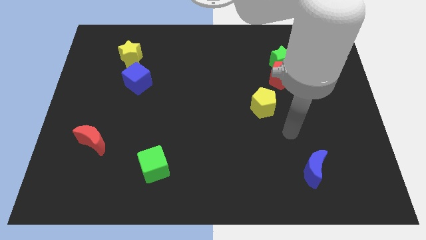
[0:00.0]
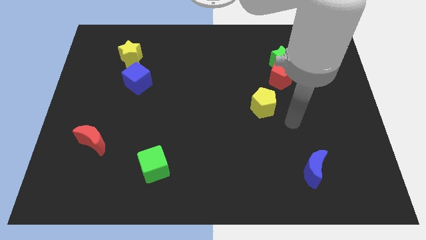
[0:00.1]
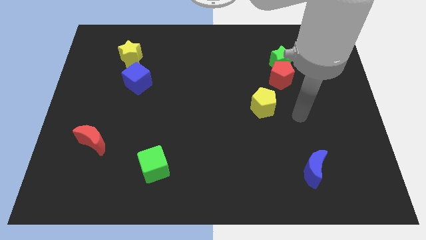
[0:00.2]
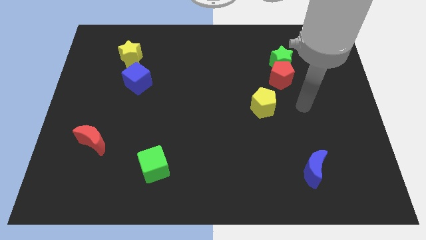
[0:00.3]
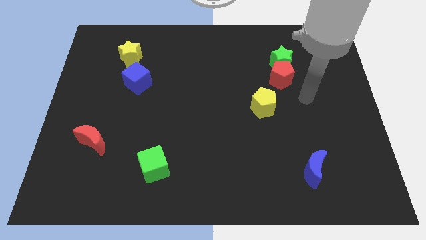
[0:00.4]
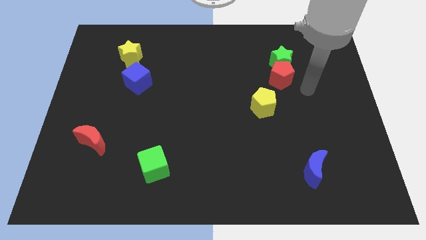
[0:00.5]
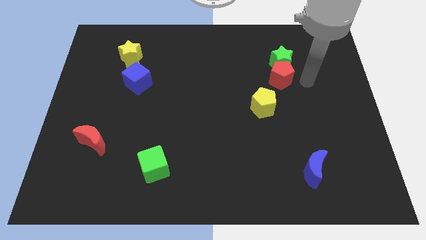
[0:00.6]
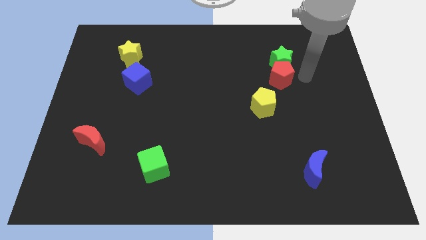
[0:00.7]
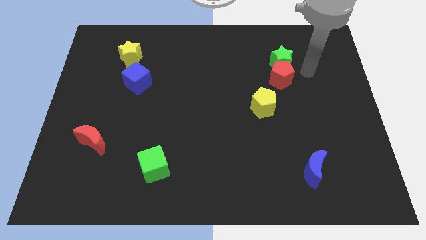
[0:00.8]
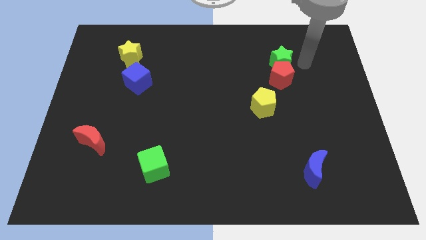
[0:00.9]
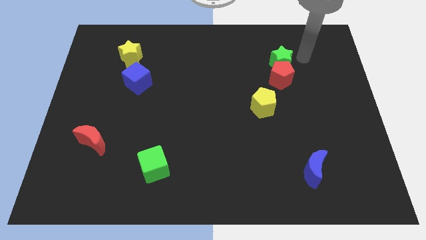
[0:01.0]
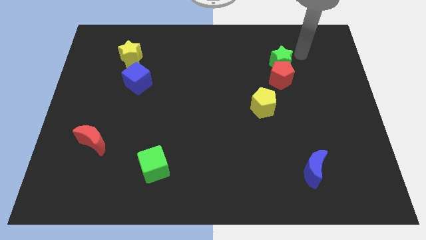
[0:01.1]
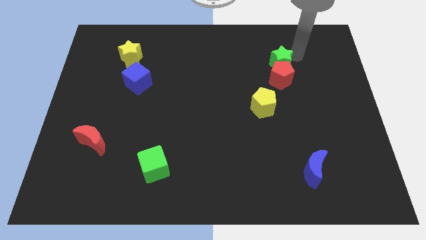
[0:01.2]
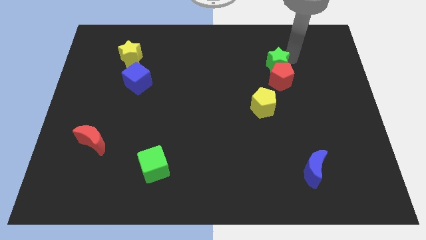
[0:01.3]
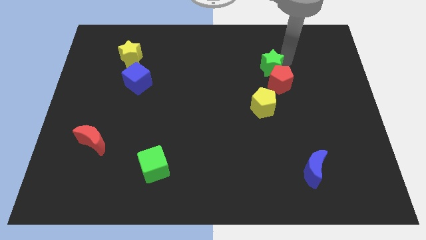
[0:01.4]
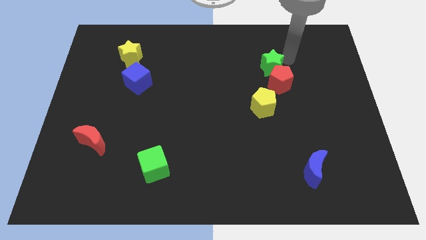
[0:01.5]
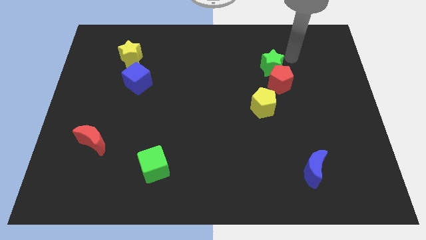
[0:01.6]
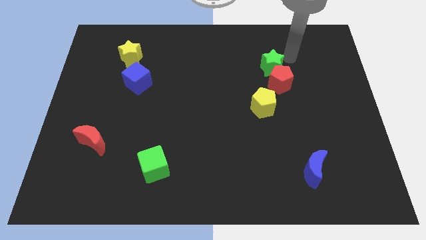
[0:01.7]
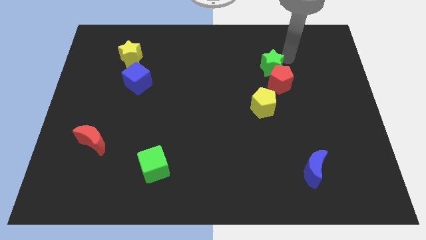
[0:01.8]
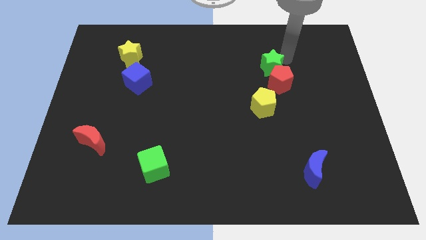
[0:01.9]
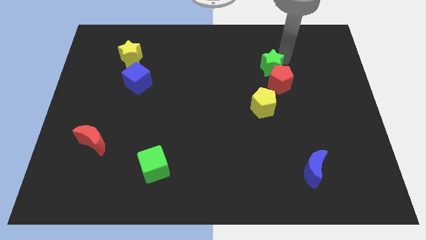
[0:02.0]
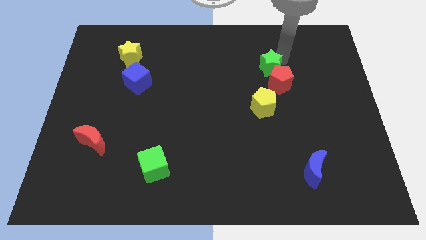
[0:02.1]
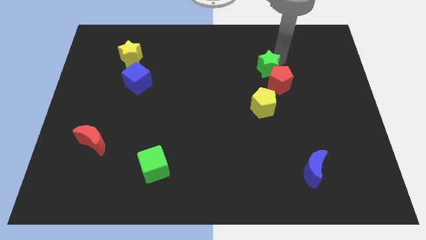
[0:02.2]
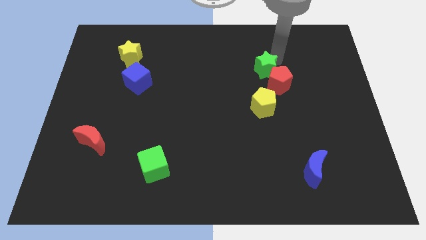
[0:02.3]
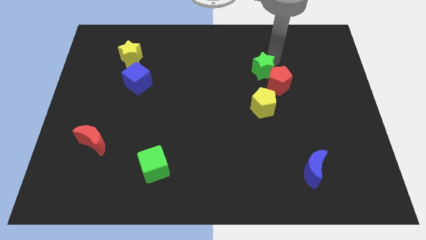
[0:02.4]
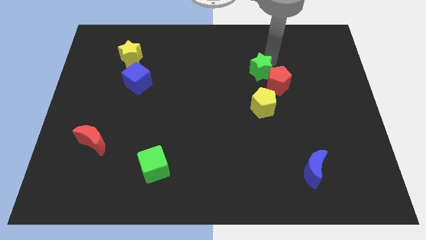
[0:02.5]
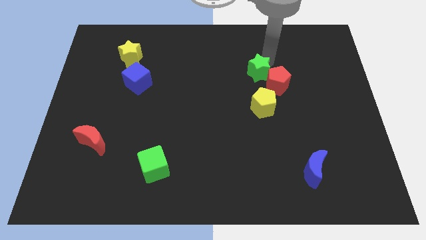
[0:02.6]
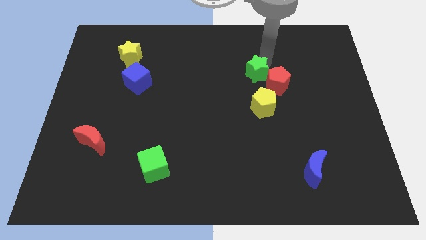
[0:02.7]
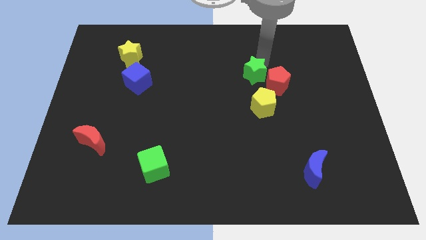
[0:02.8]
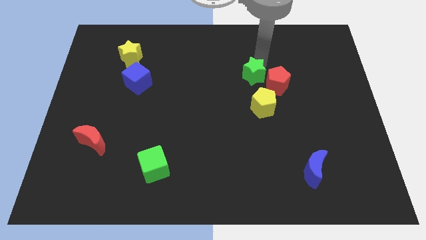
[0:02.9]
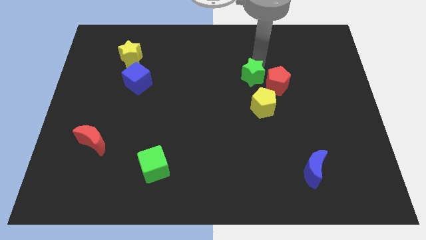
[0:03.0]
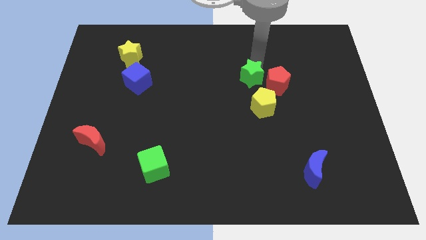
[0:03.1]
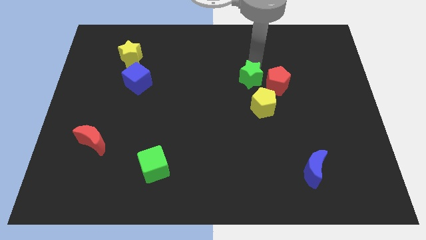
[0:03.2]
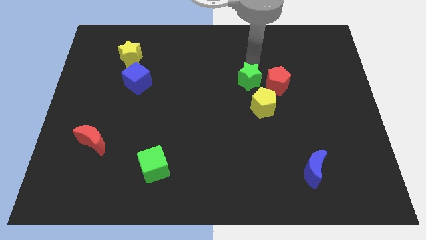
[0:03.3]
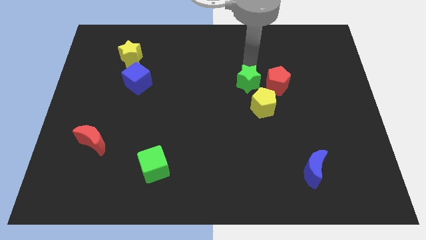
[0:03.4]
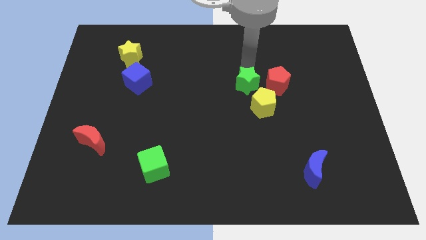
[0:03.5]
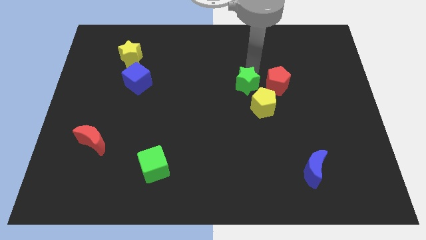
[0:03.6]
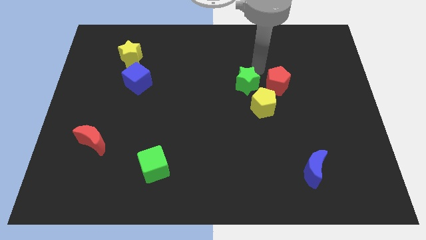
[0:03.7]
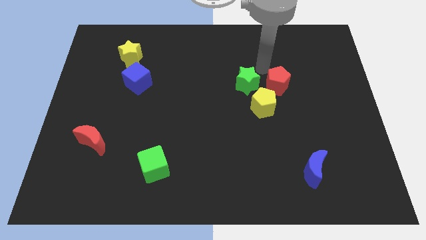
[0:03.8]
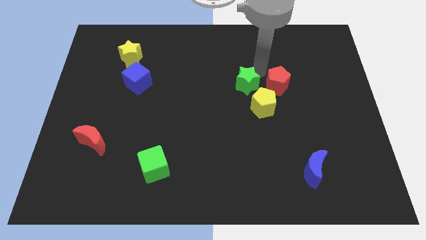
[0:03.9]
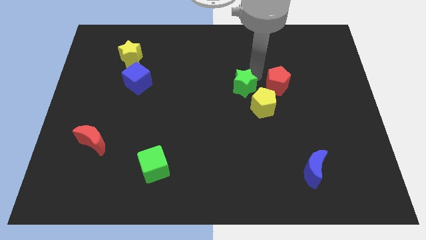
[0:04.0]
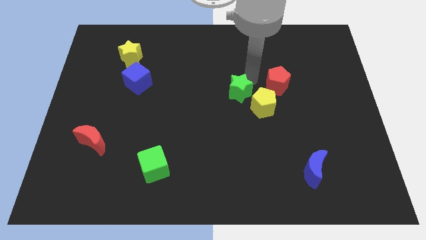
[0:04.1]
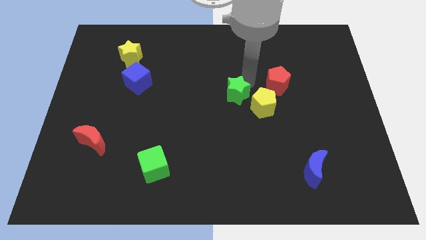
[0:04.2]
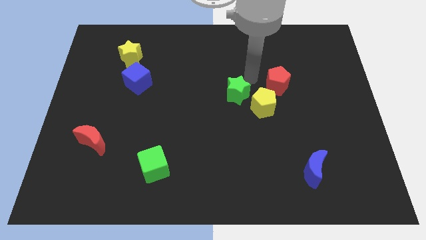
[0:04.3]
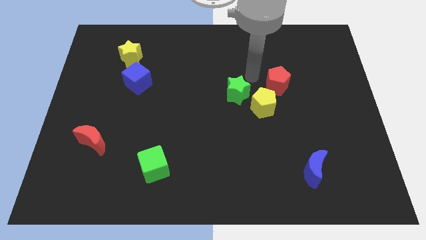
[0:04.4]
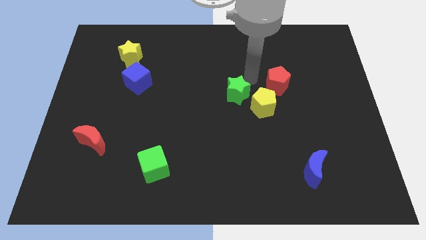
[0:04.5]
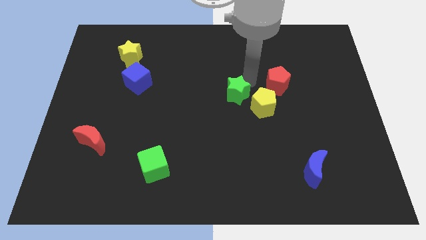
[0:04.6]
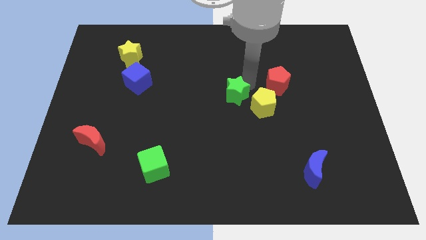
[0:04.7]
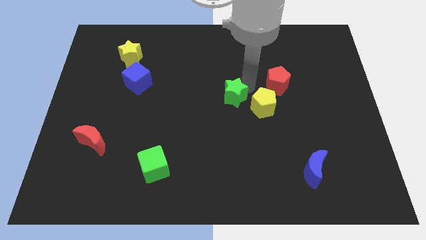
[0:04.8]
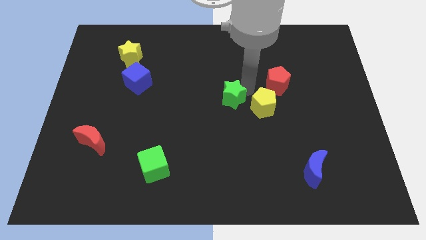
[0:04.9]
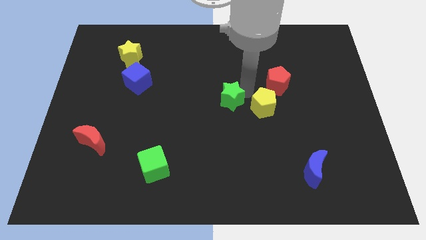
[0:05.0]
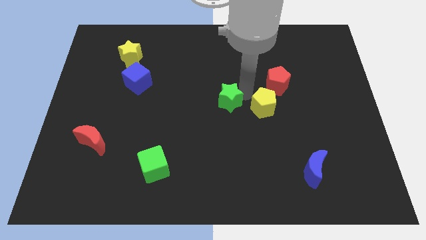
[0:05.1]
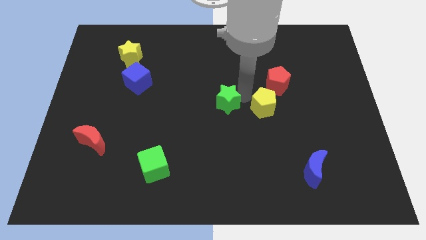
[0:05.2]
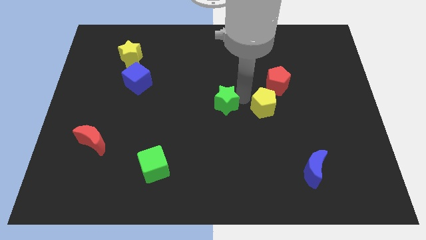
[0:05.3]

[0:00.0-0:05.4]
move the green star downwards and left diagonally

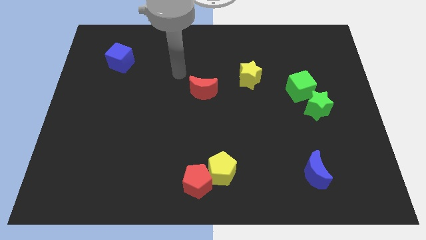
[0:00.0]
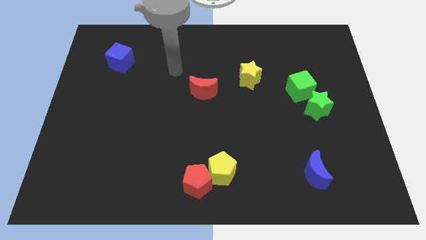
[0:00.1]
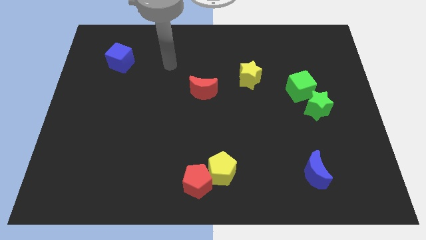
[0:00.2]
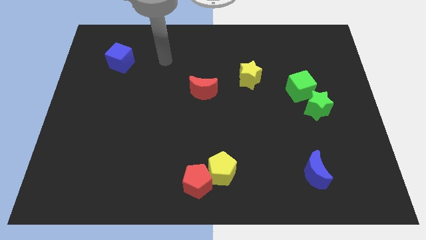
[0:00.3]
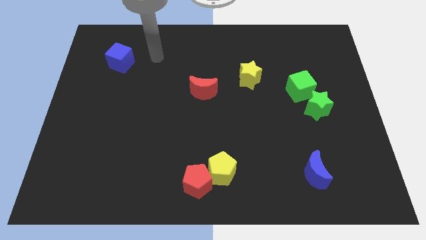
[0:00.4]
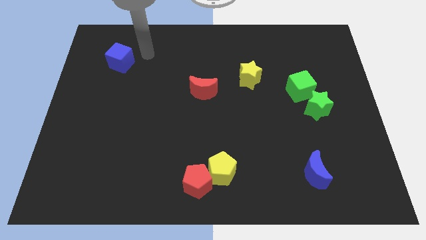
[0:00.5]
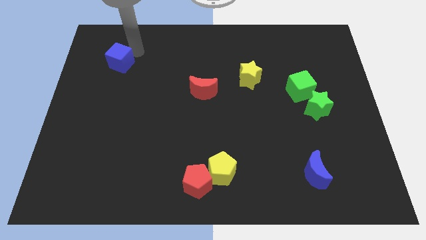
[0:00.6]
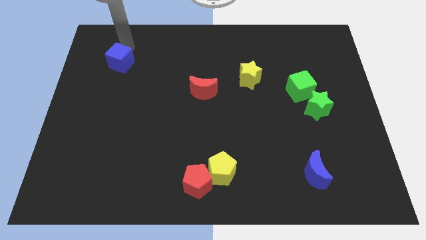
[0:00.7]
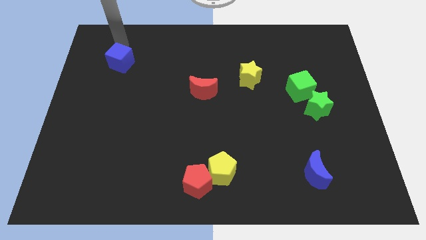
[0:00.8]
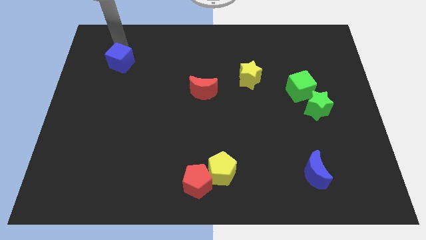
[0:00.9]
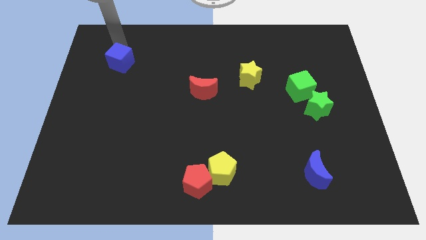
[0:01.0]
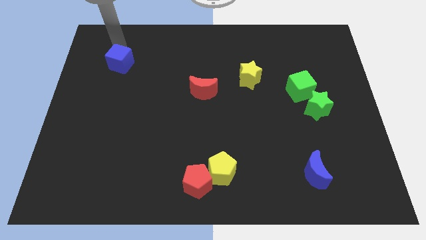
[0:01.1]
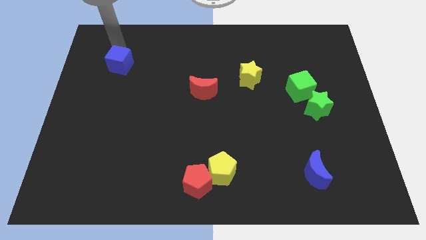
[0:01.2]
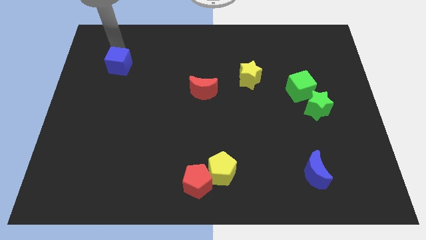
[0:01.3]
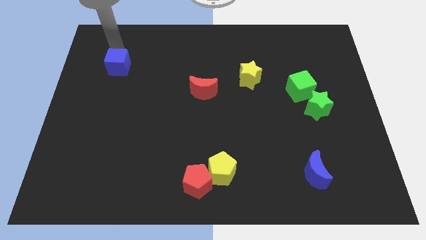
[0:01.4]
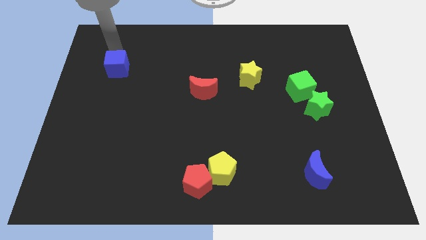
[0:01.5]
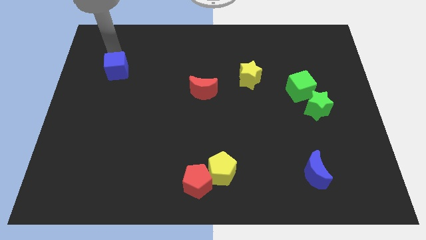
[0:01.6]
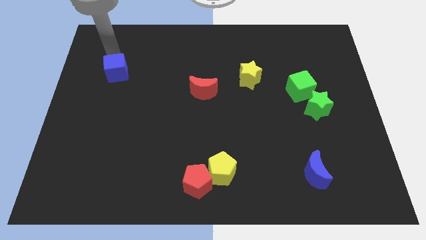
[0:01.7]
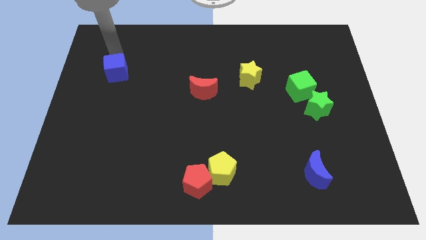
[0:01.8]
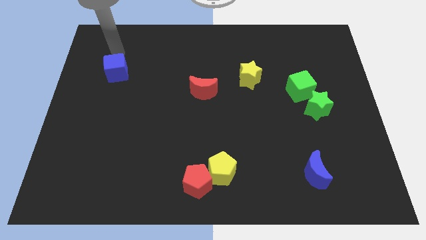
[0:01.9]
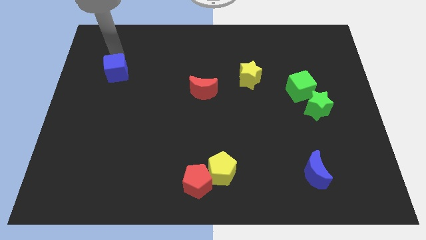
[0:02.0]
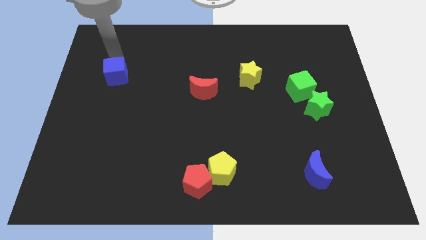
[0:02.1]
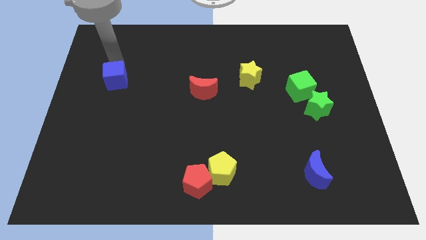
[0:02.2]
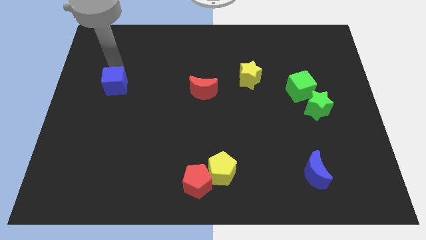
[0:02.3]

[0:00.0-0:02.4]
slide the blue cube somewhat downwards

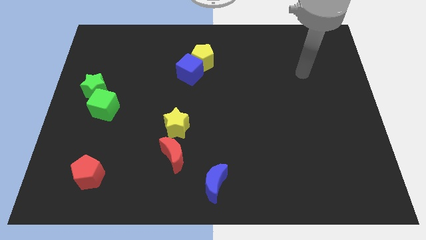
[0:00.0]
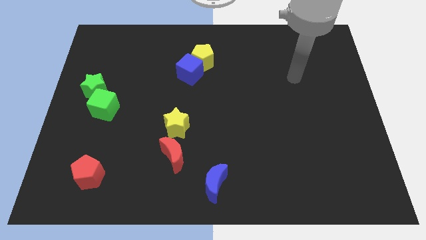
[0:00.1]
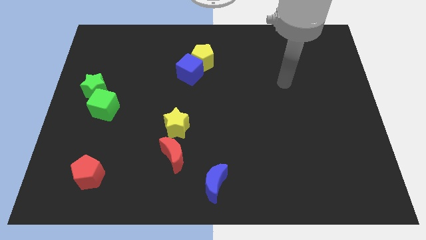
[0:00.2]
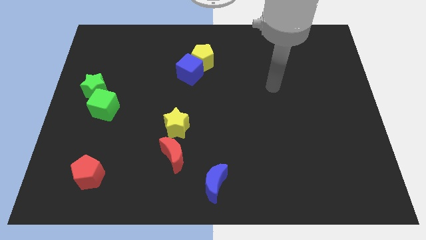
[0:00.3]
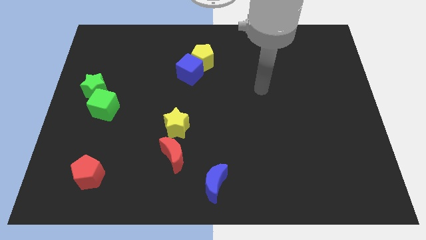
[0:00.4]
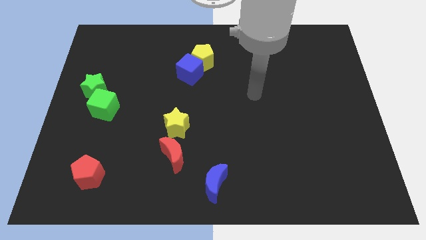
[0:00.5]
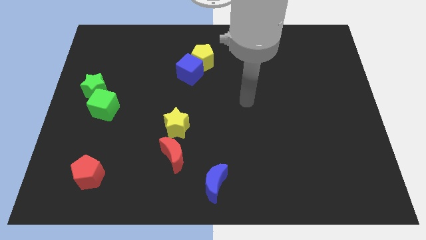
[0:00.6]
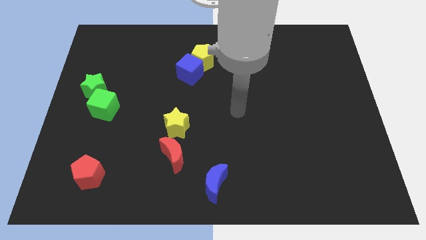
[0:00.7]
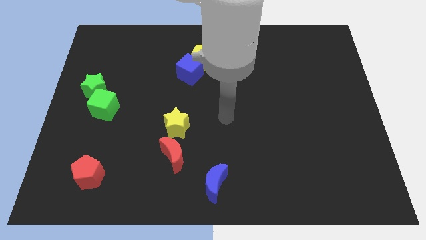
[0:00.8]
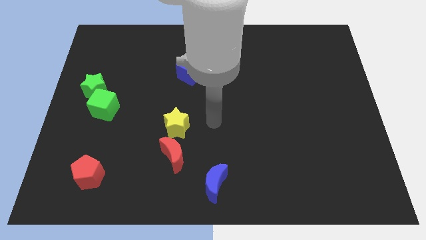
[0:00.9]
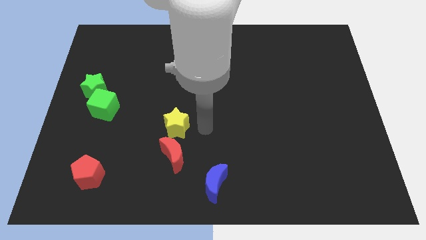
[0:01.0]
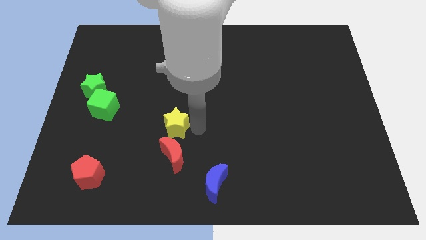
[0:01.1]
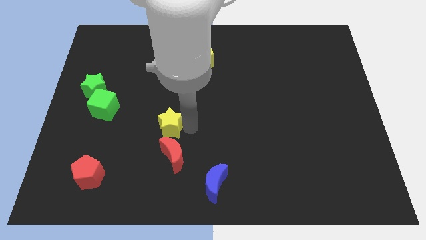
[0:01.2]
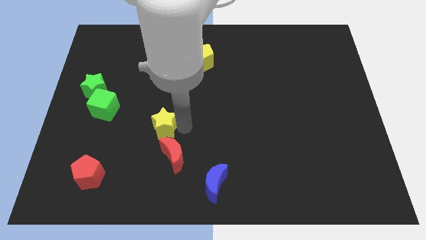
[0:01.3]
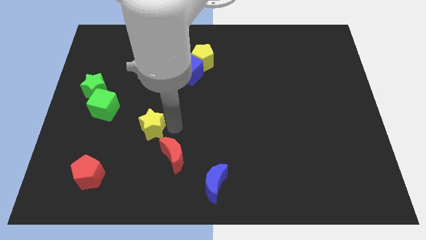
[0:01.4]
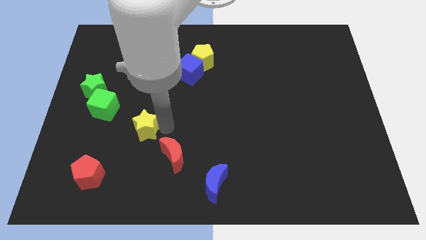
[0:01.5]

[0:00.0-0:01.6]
move the yellow star a little bit to the left
